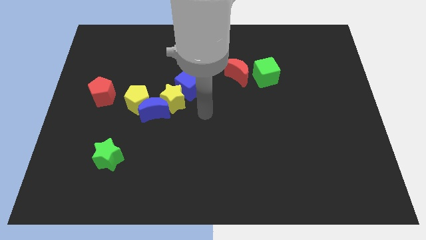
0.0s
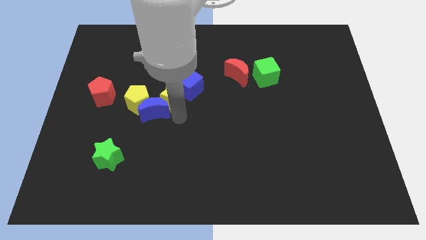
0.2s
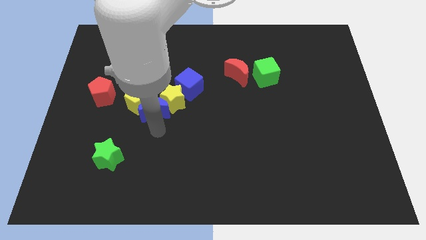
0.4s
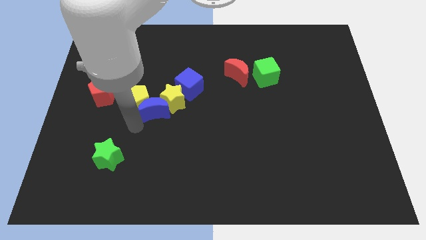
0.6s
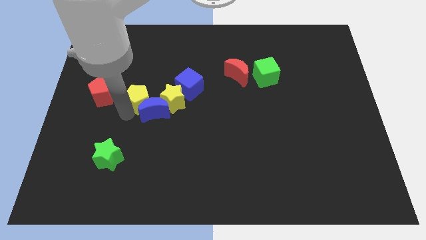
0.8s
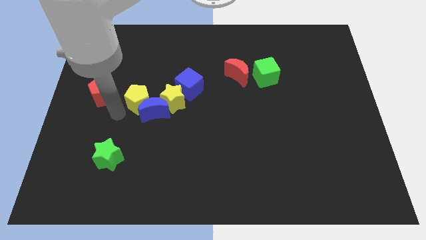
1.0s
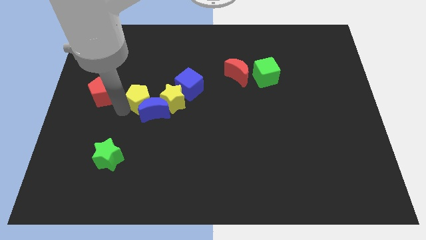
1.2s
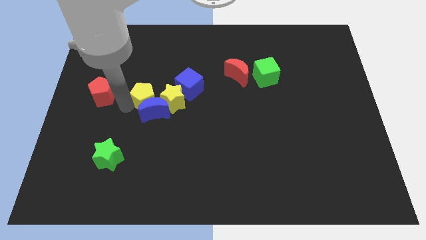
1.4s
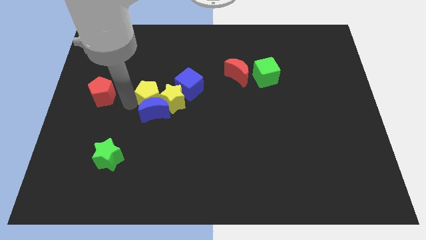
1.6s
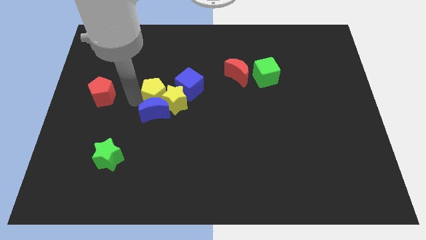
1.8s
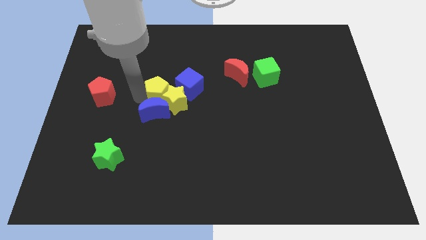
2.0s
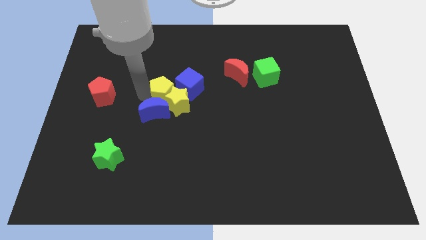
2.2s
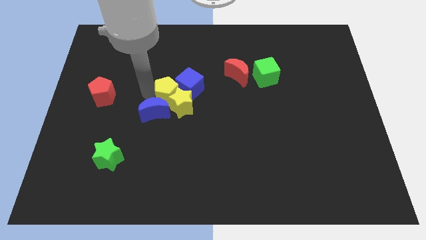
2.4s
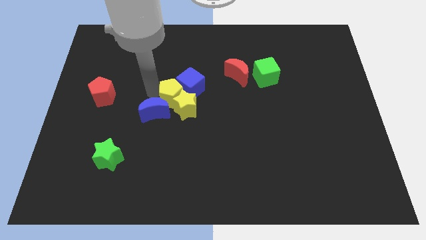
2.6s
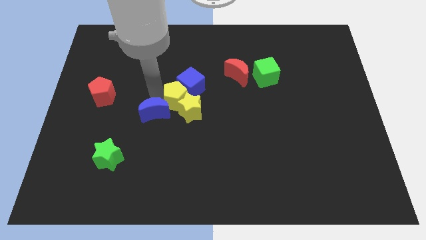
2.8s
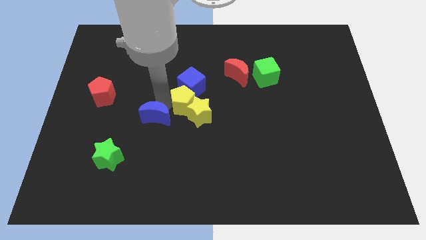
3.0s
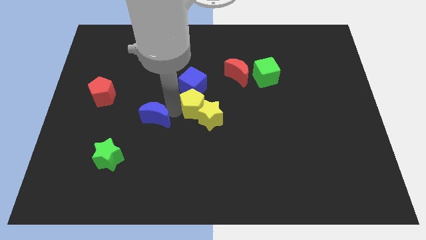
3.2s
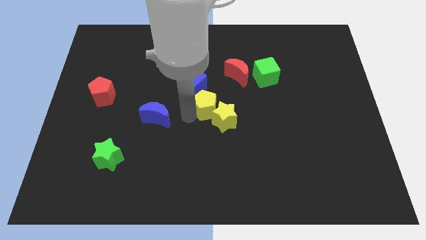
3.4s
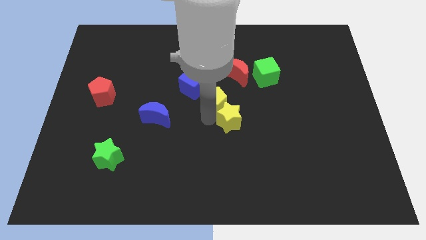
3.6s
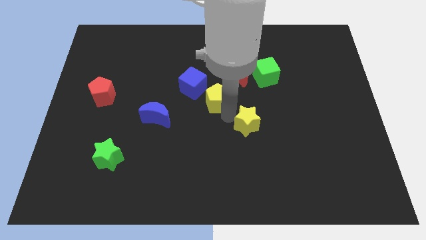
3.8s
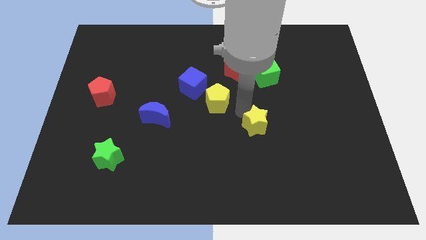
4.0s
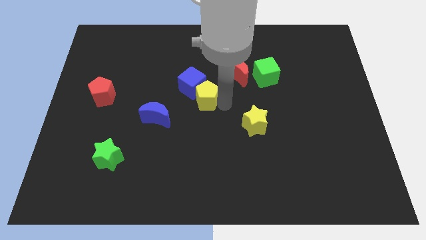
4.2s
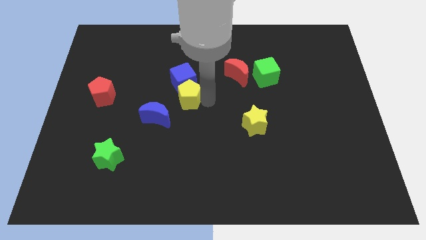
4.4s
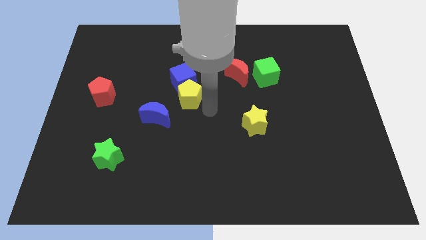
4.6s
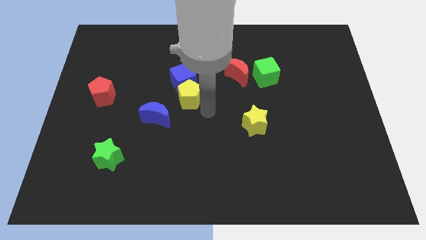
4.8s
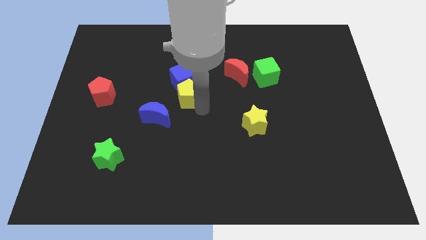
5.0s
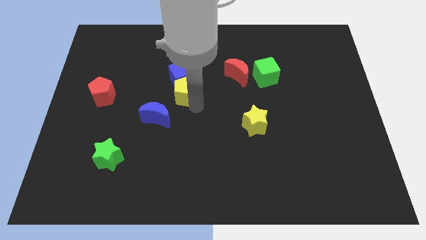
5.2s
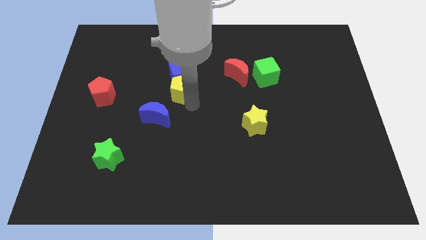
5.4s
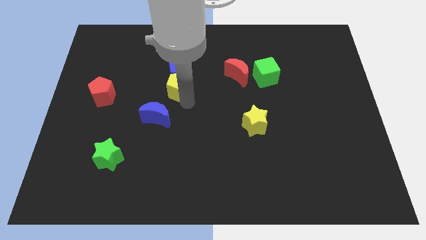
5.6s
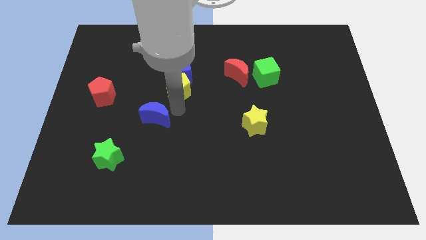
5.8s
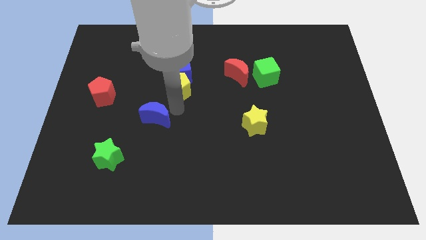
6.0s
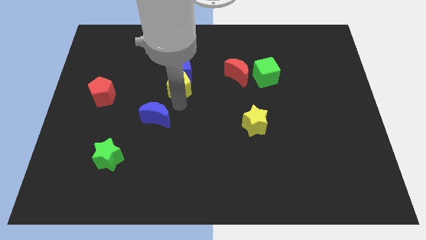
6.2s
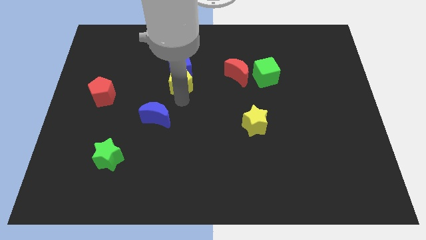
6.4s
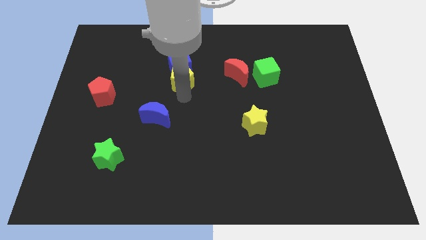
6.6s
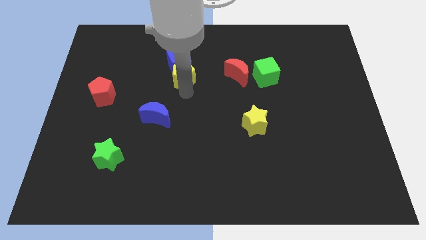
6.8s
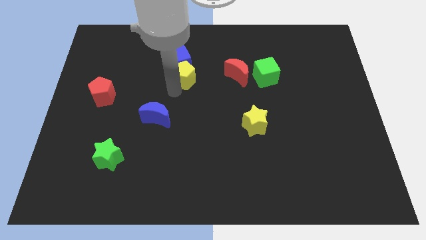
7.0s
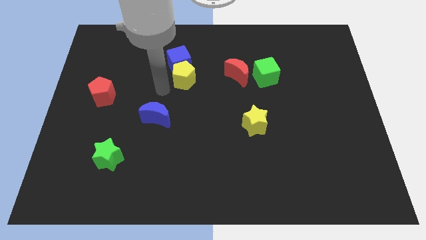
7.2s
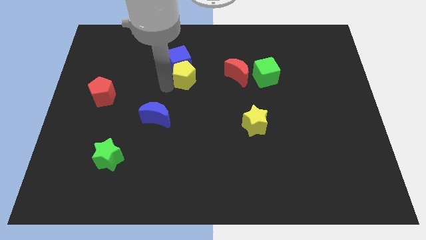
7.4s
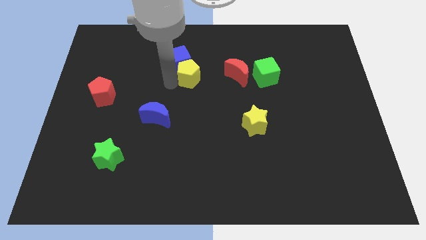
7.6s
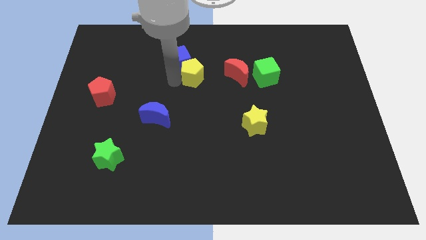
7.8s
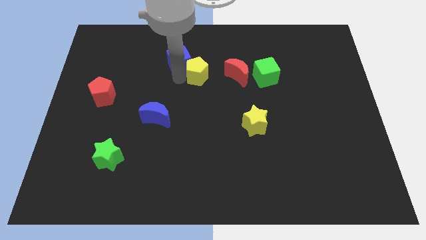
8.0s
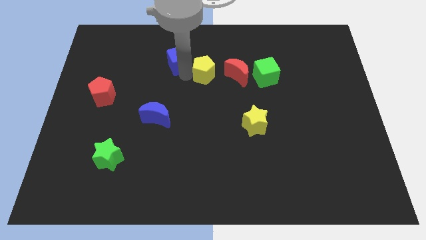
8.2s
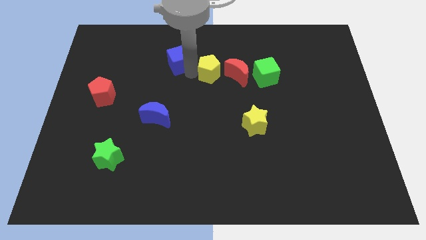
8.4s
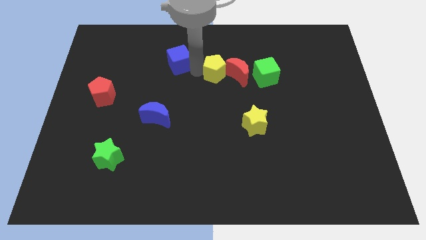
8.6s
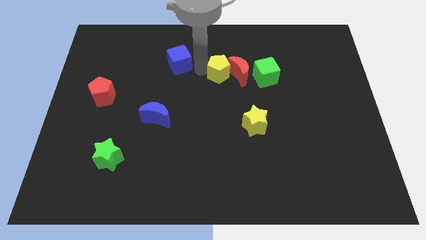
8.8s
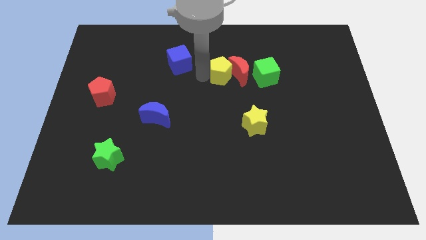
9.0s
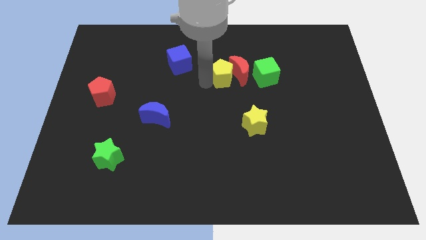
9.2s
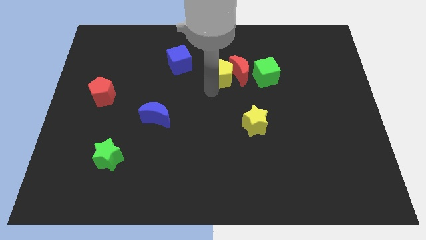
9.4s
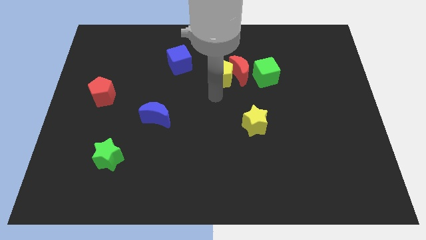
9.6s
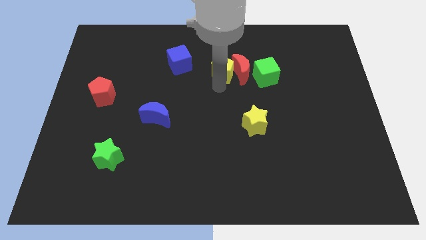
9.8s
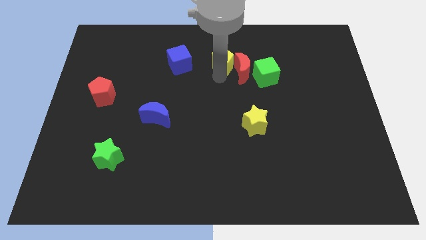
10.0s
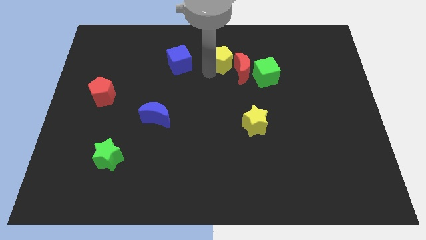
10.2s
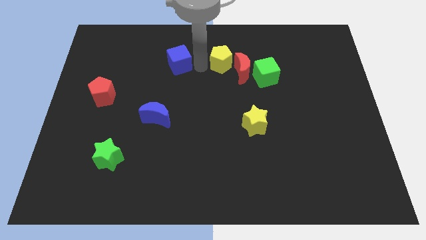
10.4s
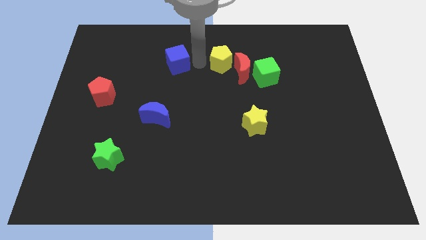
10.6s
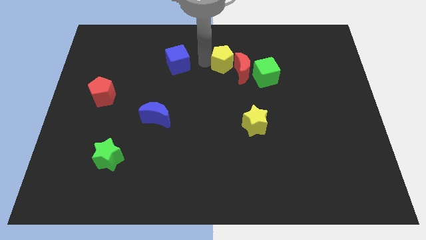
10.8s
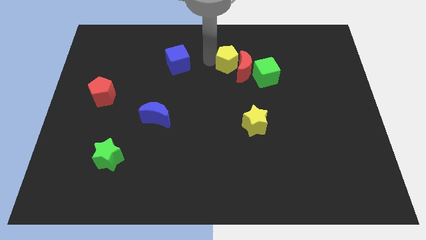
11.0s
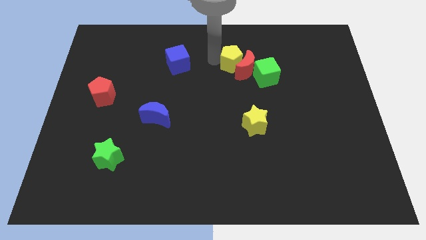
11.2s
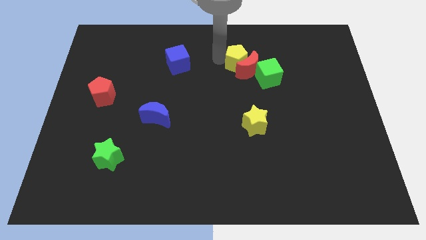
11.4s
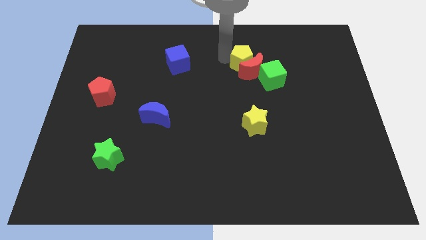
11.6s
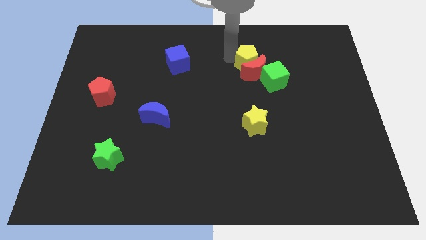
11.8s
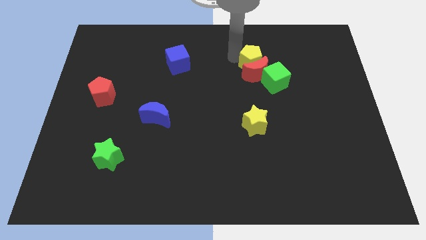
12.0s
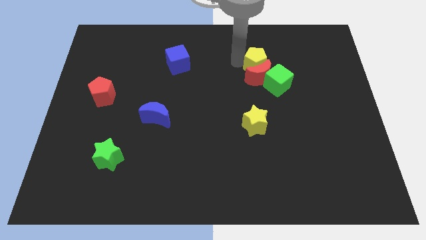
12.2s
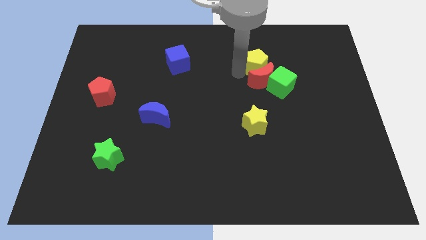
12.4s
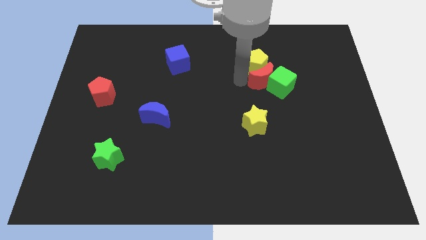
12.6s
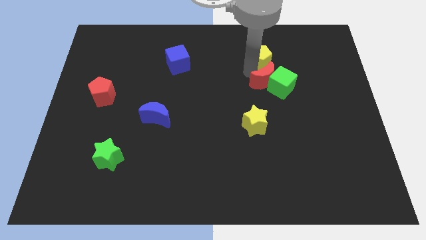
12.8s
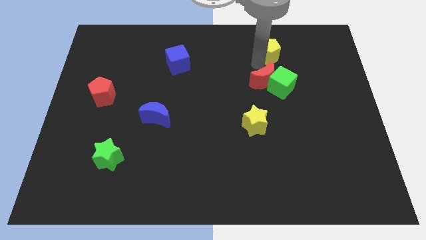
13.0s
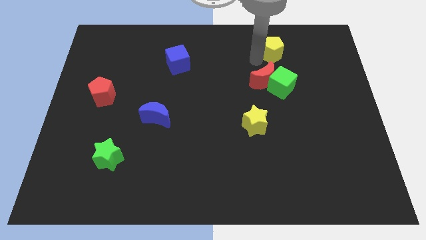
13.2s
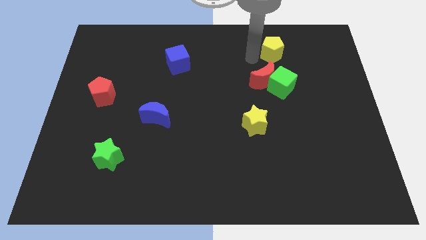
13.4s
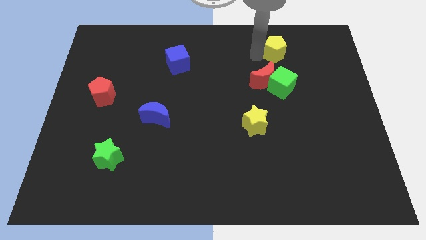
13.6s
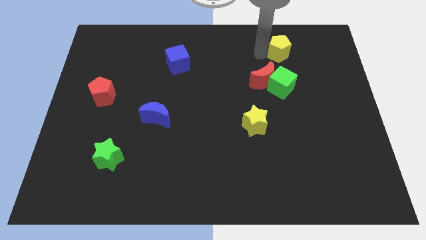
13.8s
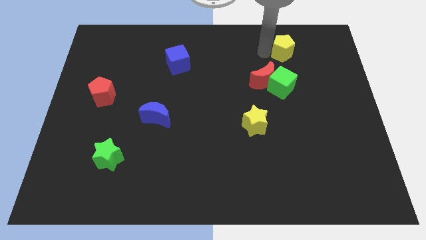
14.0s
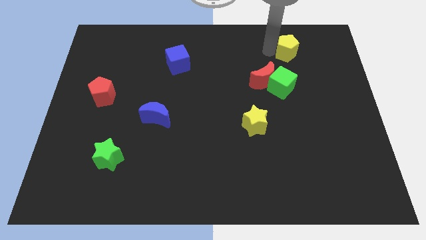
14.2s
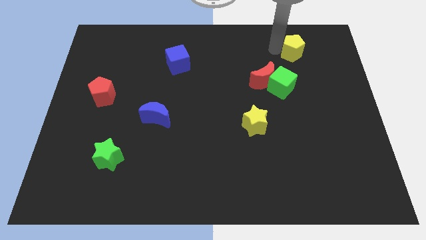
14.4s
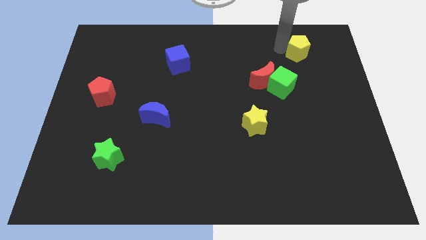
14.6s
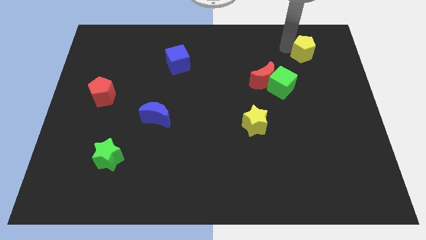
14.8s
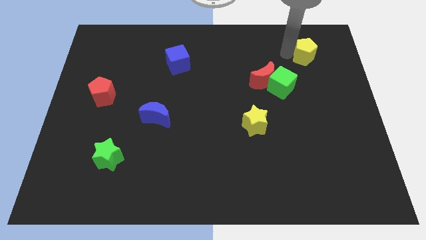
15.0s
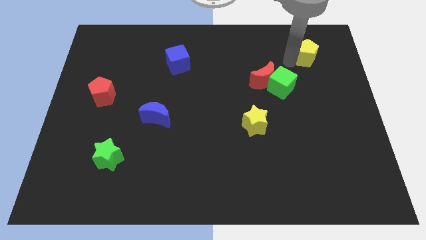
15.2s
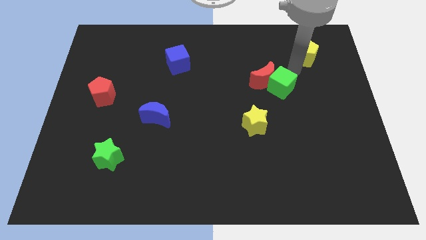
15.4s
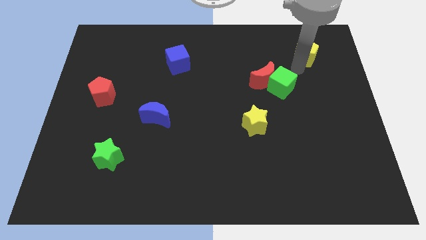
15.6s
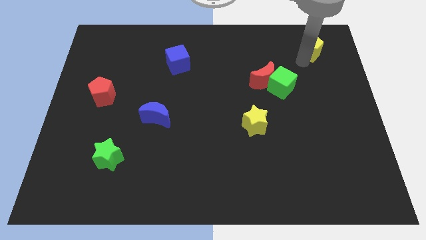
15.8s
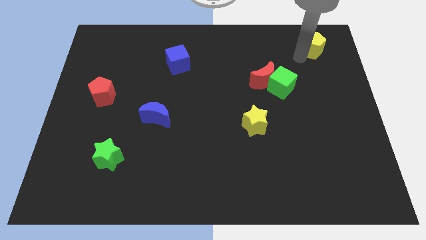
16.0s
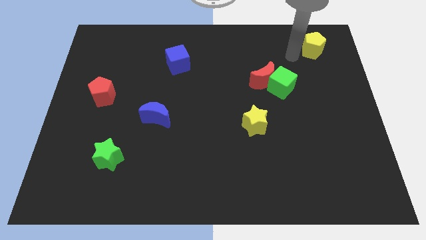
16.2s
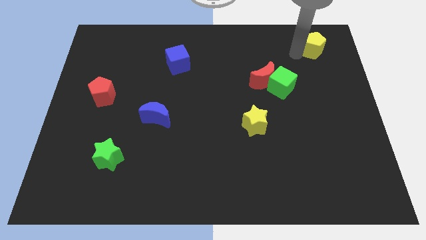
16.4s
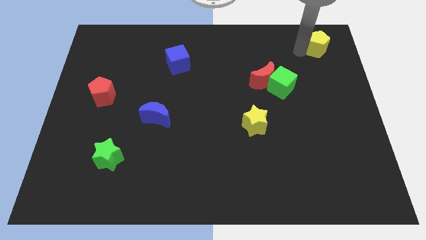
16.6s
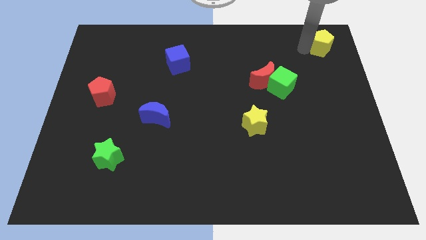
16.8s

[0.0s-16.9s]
put the yellow pentagon to the top right of the board
